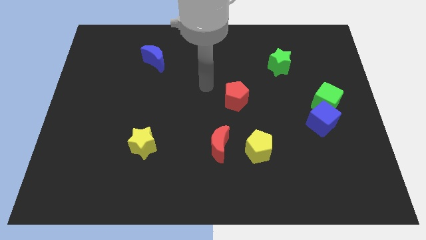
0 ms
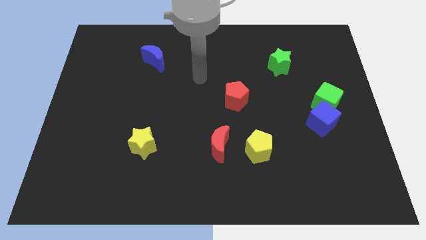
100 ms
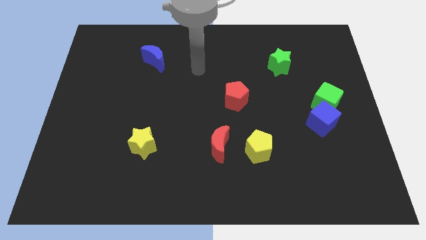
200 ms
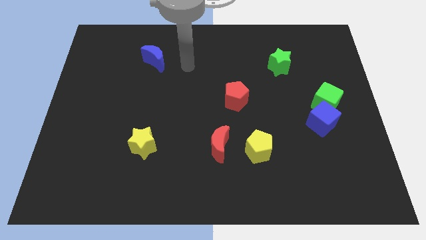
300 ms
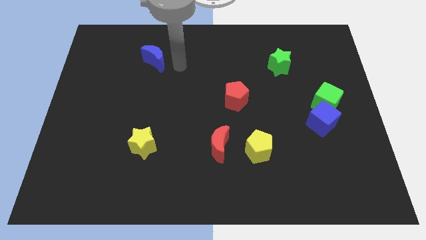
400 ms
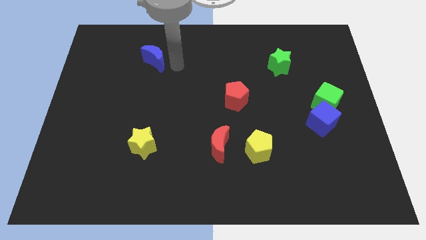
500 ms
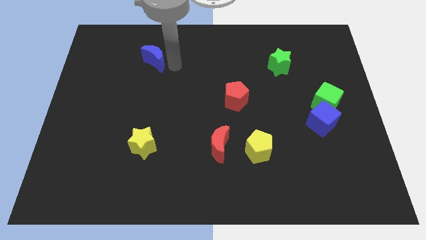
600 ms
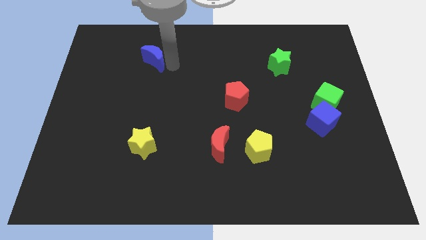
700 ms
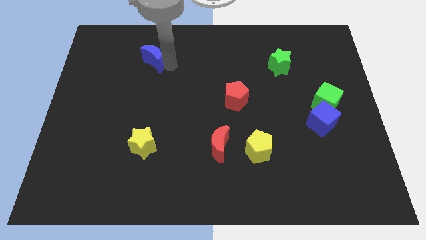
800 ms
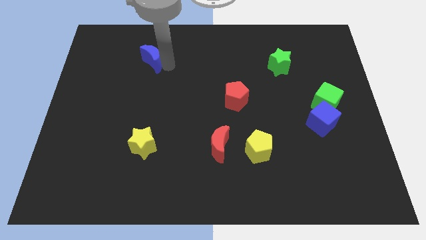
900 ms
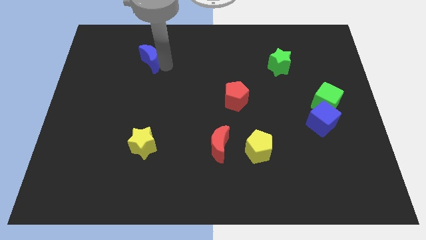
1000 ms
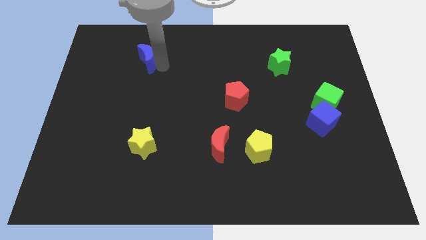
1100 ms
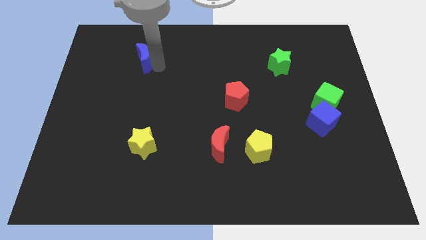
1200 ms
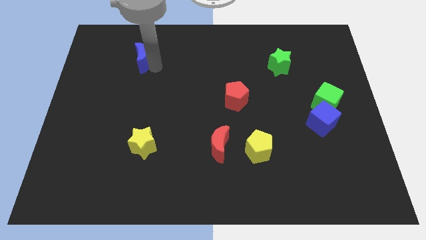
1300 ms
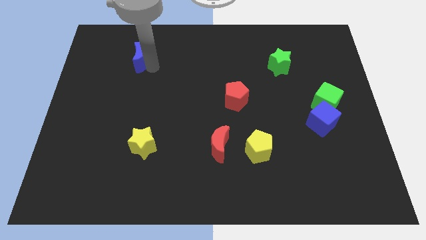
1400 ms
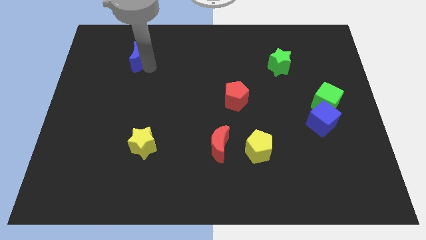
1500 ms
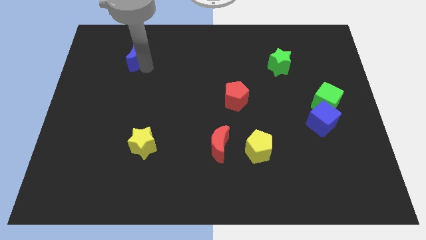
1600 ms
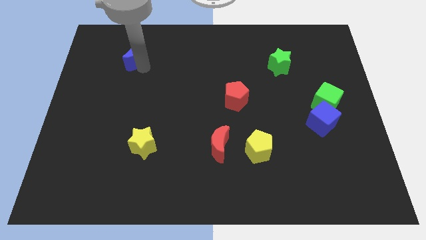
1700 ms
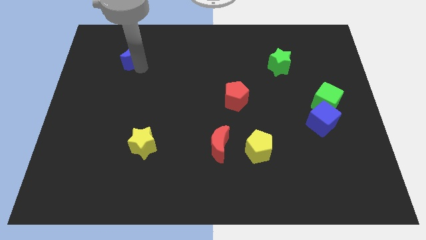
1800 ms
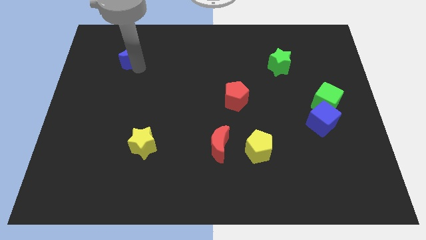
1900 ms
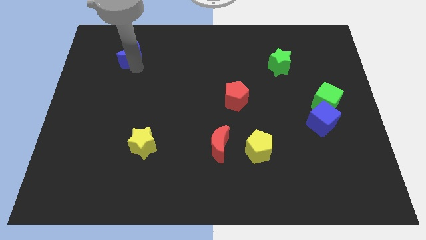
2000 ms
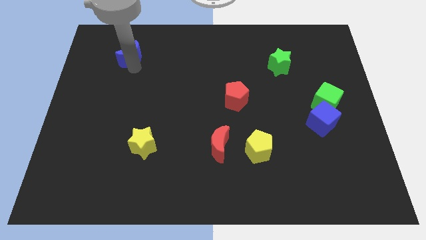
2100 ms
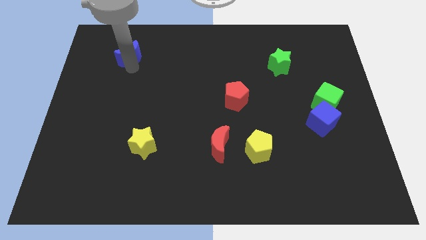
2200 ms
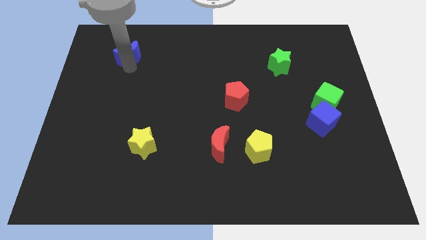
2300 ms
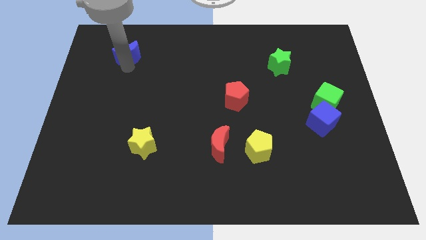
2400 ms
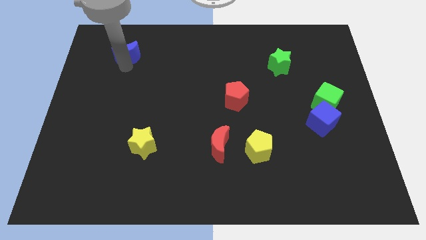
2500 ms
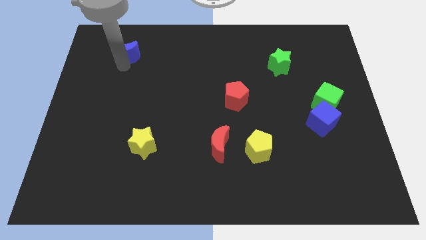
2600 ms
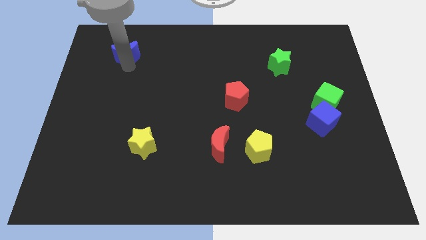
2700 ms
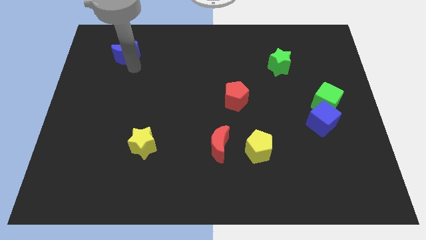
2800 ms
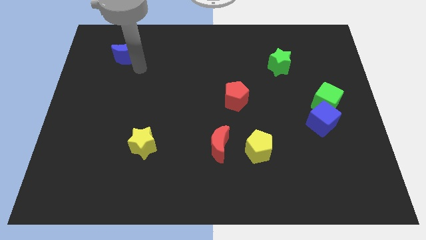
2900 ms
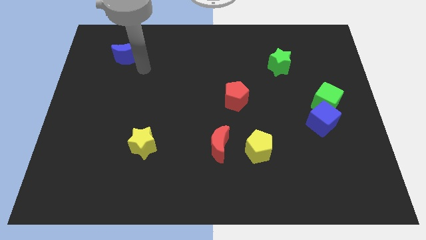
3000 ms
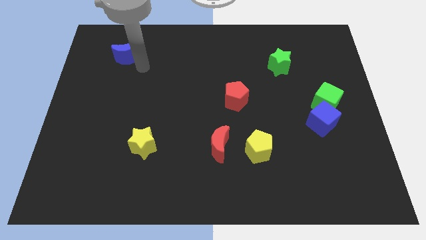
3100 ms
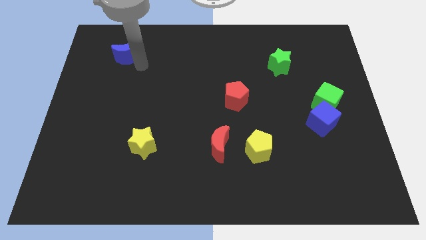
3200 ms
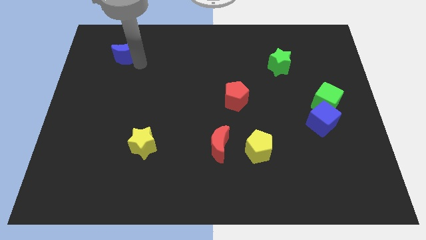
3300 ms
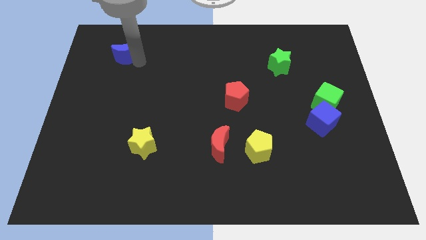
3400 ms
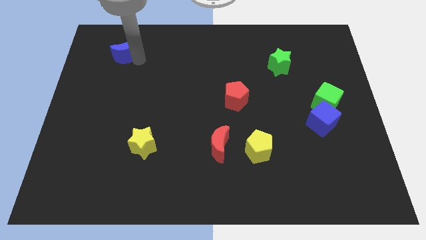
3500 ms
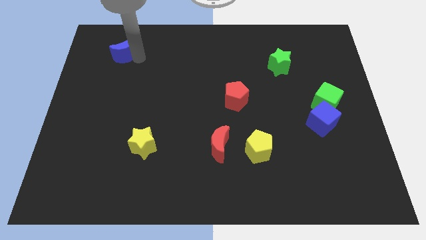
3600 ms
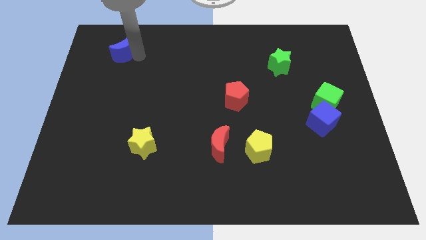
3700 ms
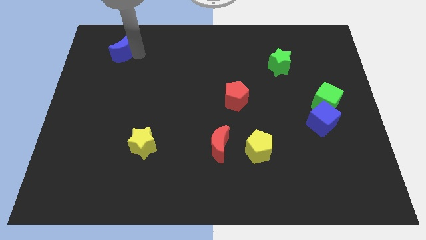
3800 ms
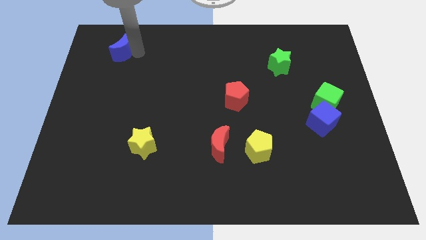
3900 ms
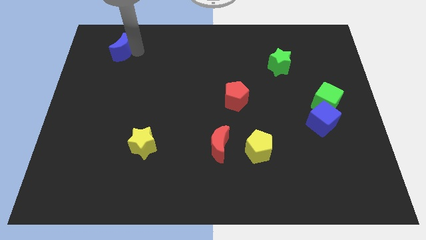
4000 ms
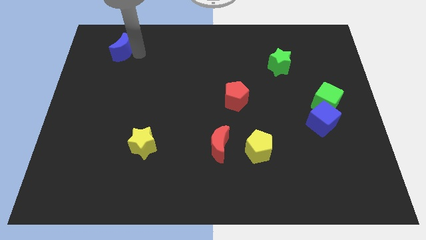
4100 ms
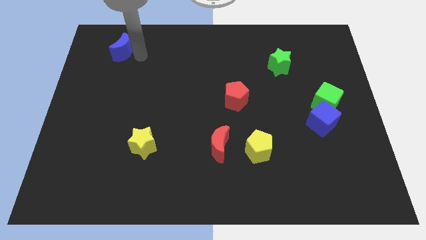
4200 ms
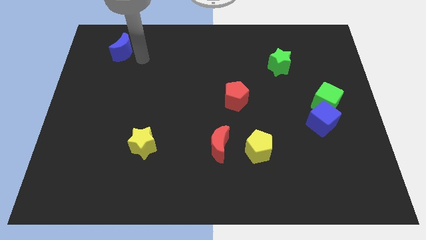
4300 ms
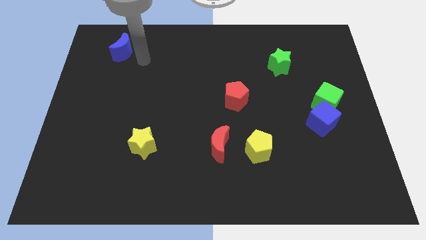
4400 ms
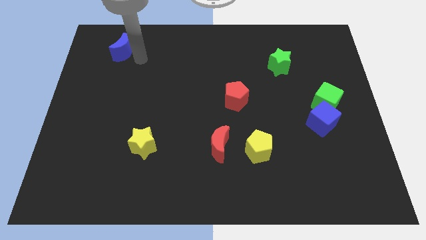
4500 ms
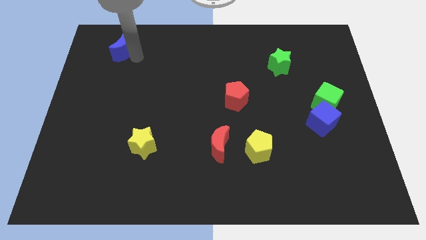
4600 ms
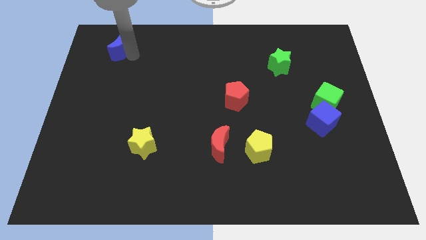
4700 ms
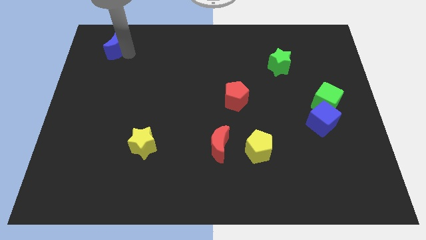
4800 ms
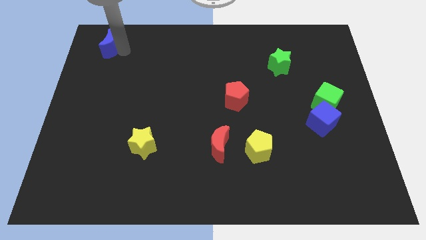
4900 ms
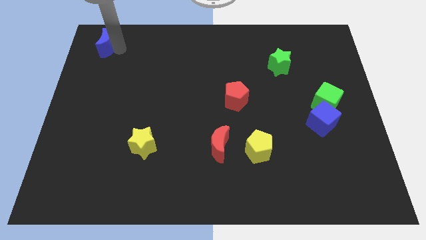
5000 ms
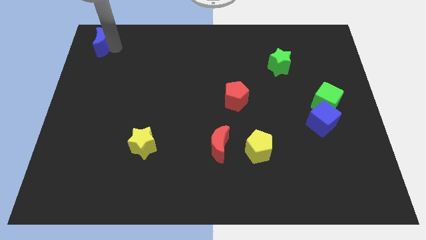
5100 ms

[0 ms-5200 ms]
move the blue moon to the top left corner

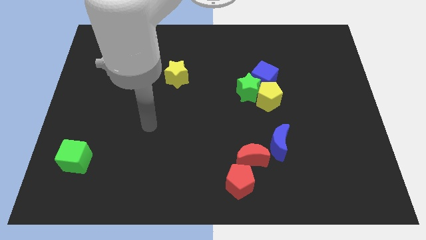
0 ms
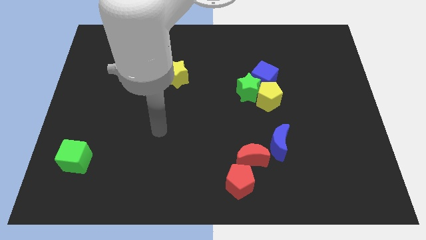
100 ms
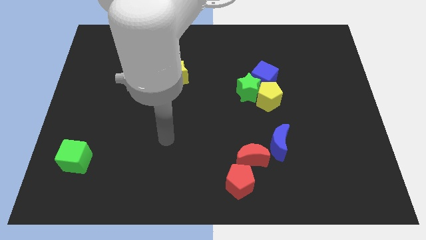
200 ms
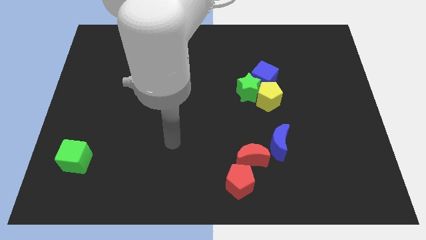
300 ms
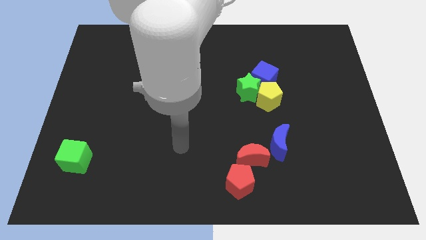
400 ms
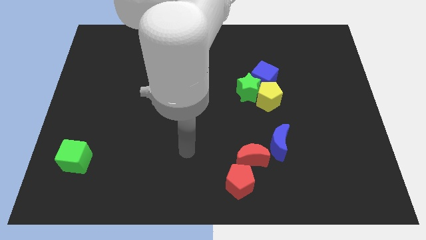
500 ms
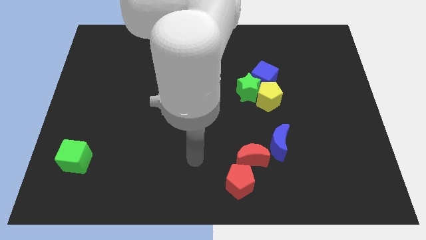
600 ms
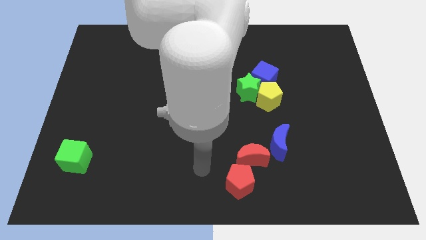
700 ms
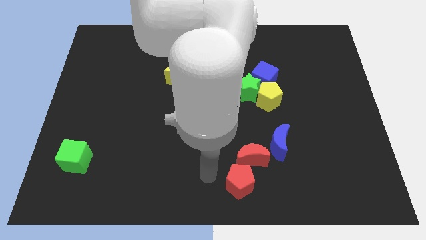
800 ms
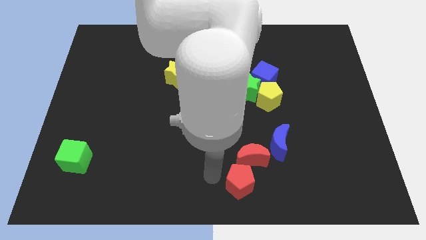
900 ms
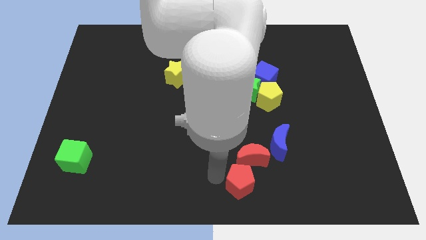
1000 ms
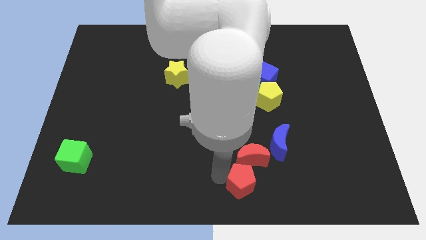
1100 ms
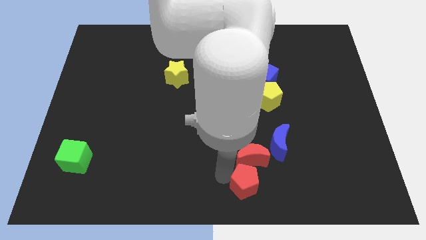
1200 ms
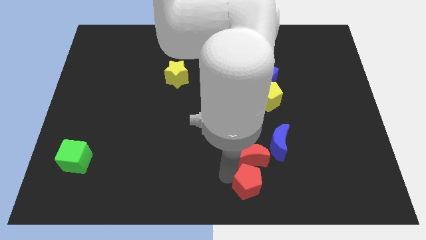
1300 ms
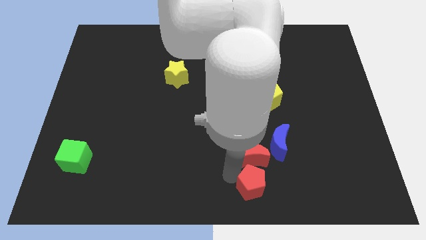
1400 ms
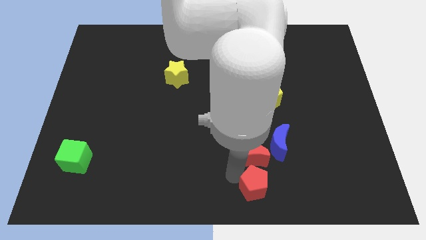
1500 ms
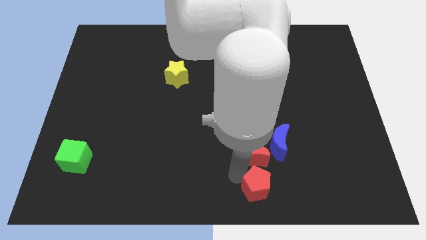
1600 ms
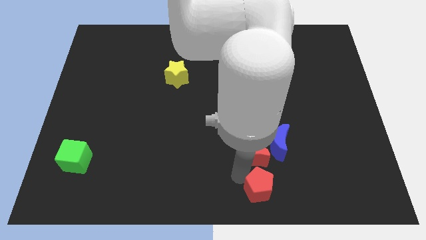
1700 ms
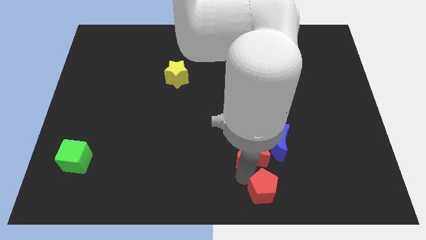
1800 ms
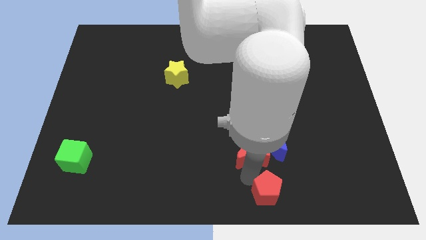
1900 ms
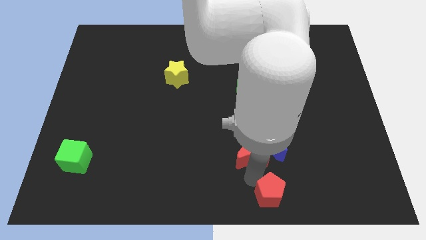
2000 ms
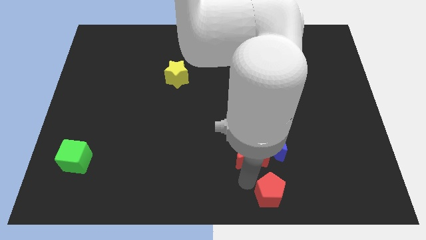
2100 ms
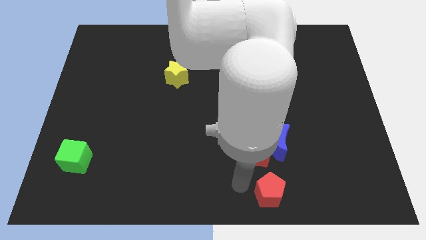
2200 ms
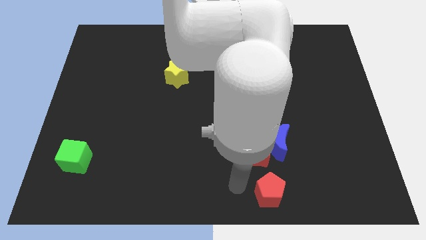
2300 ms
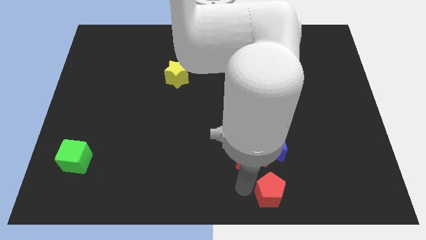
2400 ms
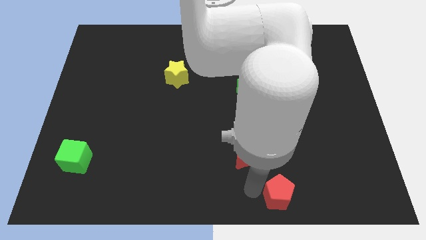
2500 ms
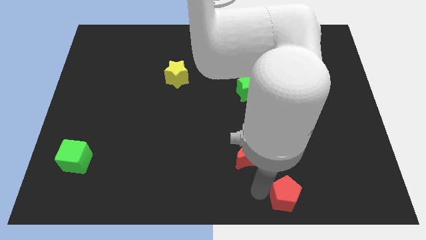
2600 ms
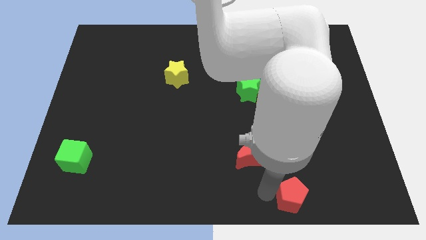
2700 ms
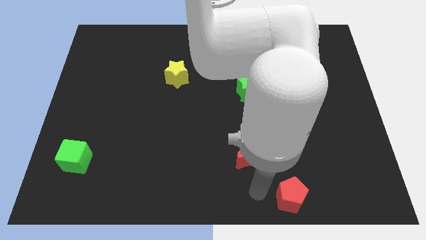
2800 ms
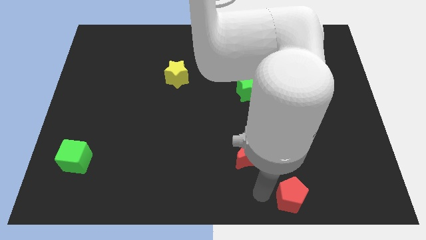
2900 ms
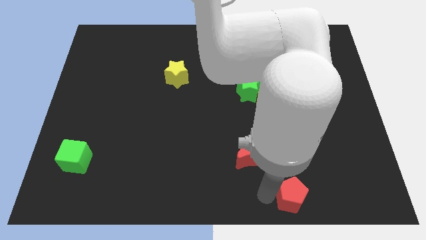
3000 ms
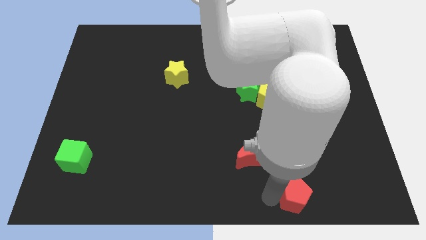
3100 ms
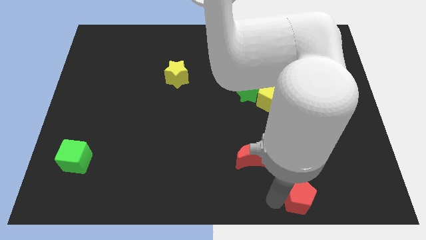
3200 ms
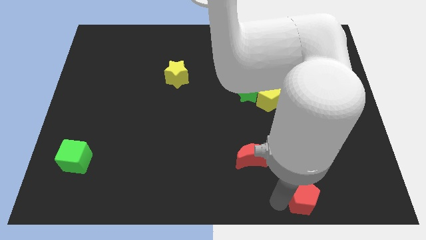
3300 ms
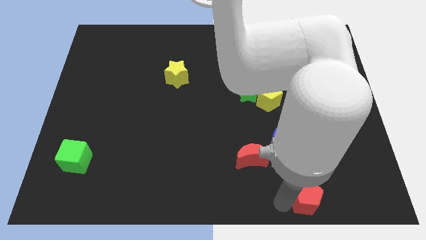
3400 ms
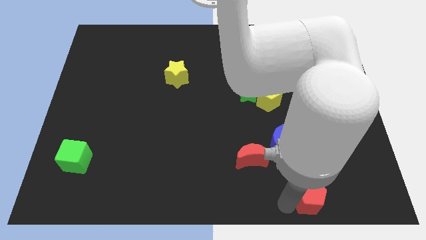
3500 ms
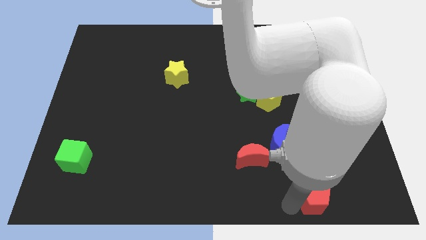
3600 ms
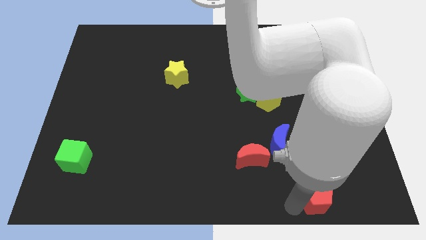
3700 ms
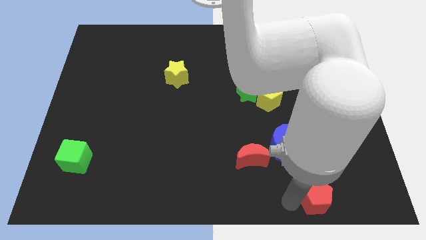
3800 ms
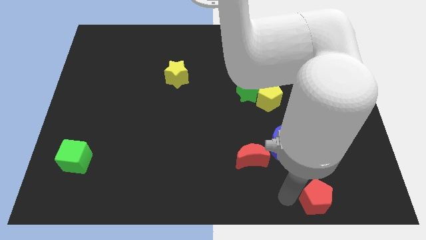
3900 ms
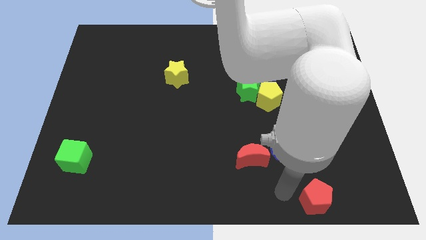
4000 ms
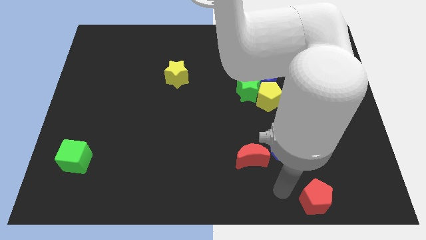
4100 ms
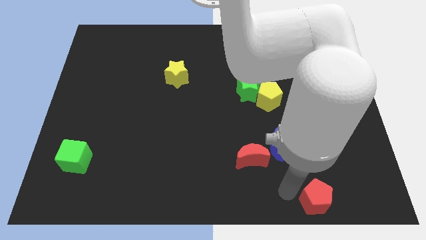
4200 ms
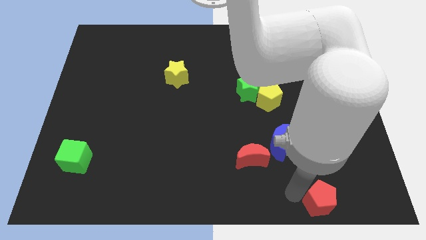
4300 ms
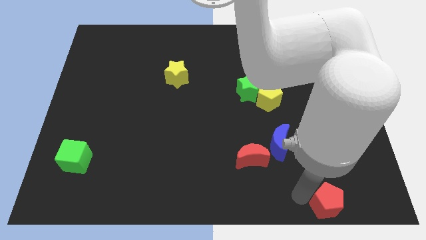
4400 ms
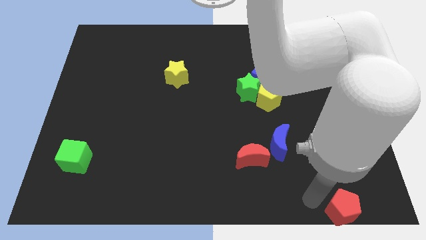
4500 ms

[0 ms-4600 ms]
slide the red pentagon to the bottom right corner
